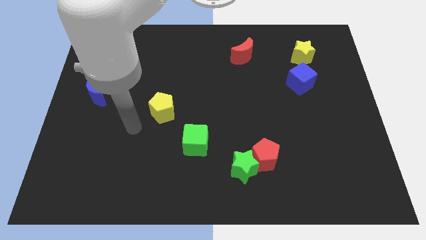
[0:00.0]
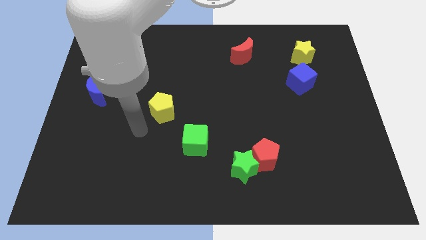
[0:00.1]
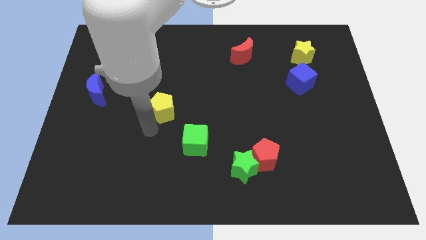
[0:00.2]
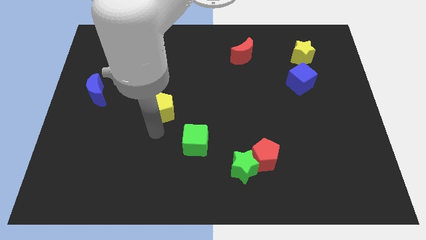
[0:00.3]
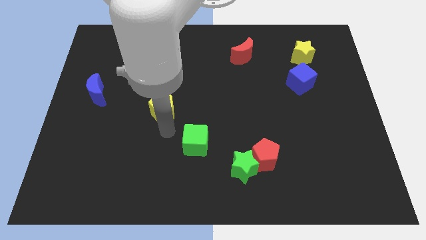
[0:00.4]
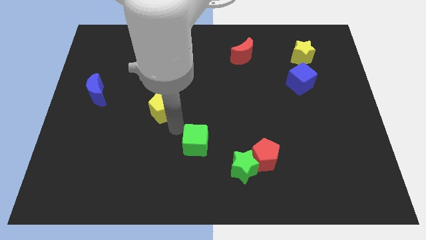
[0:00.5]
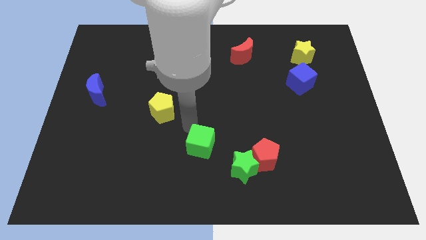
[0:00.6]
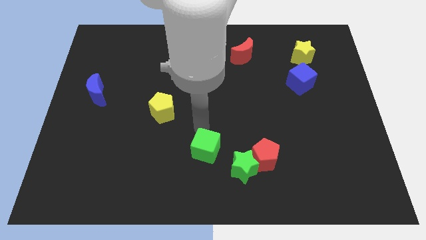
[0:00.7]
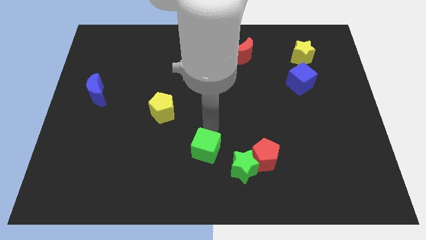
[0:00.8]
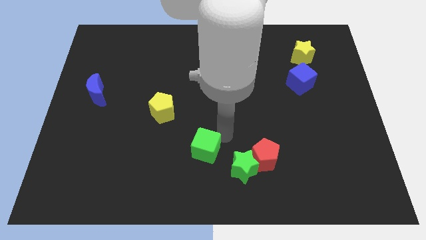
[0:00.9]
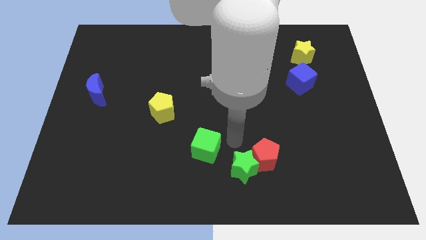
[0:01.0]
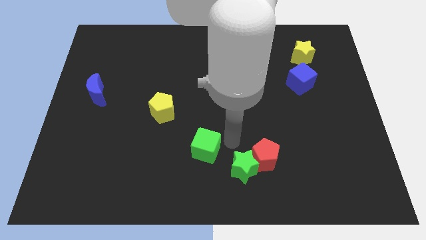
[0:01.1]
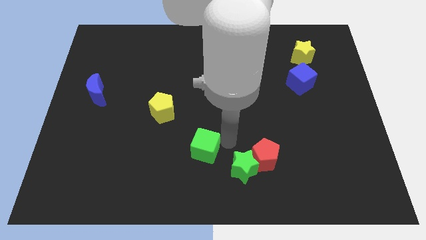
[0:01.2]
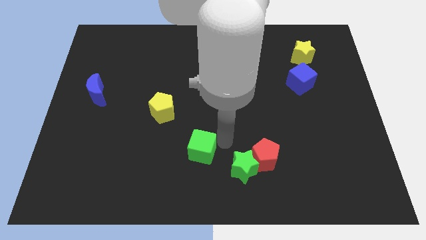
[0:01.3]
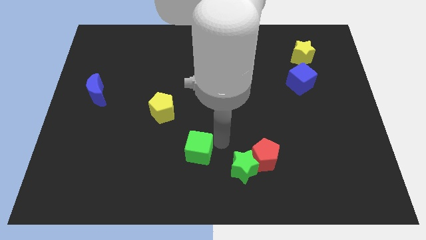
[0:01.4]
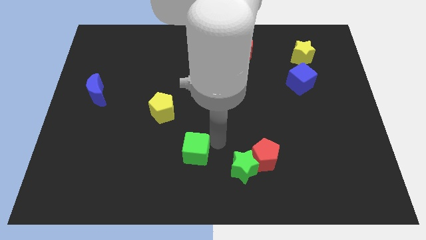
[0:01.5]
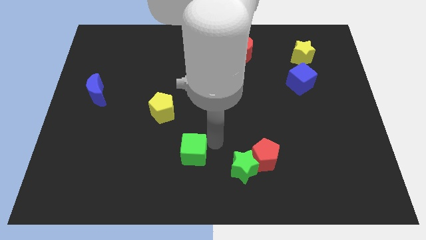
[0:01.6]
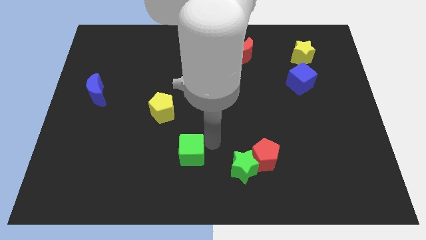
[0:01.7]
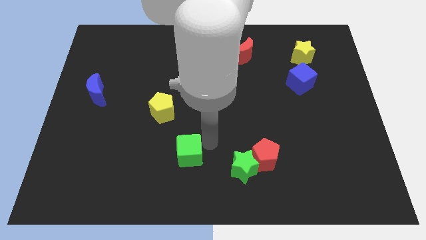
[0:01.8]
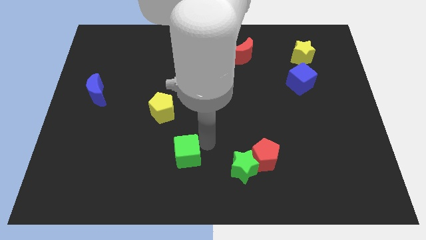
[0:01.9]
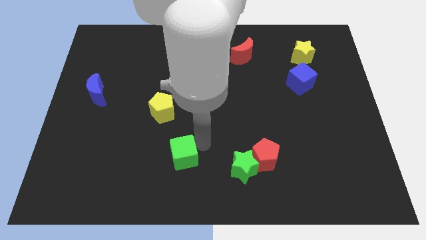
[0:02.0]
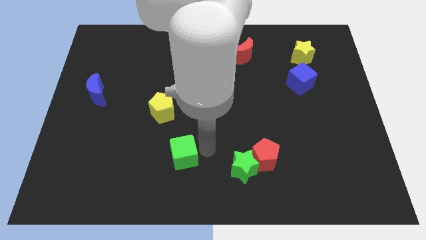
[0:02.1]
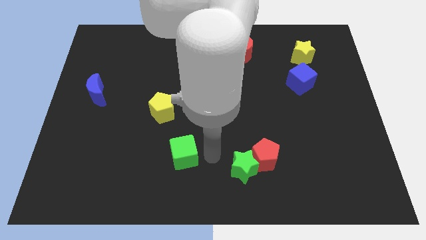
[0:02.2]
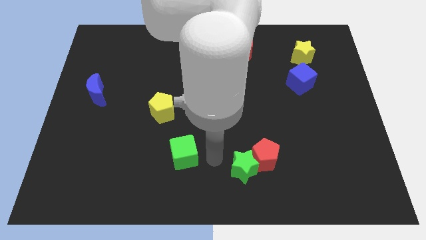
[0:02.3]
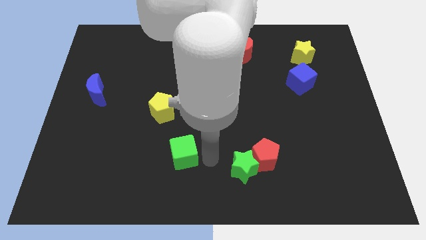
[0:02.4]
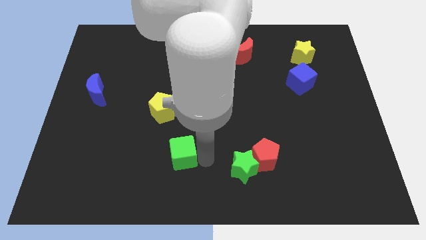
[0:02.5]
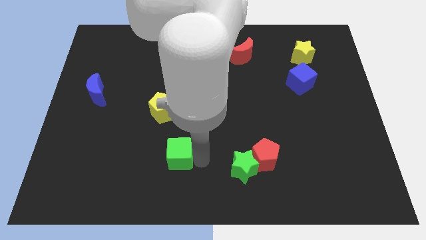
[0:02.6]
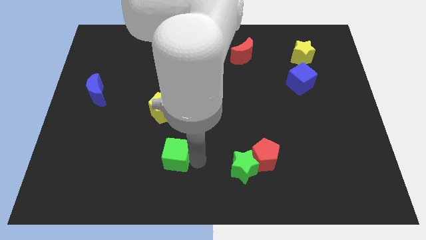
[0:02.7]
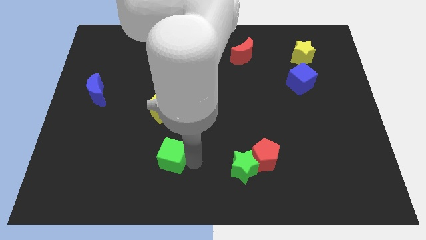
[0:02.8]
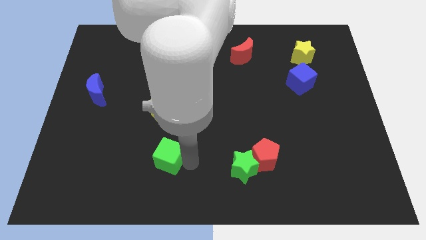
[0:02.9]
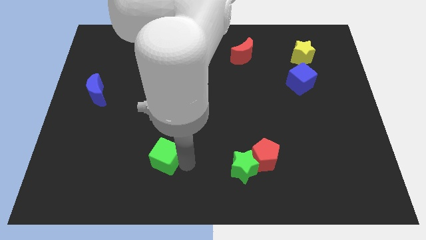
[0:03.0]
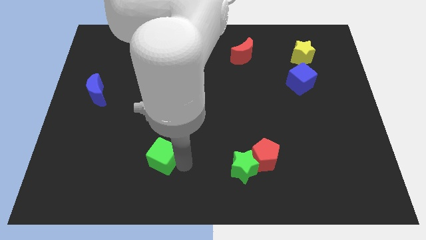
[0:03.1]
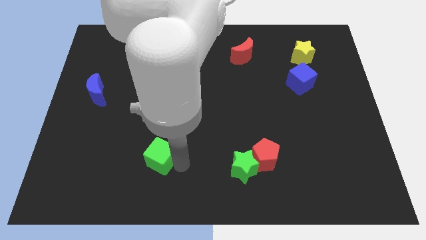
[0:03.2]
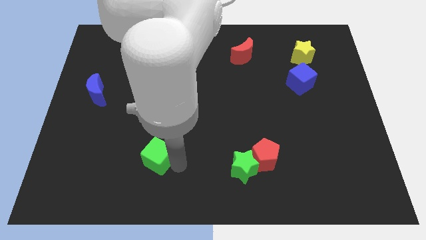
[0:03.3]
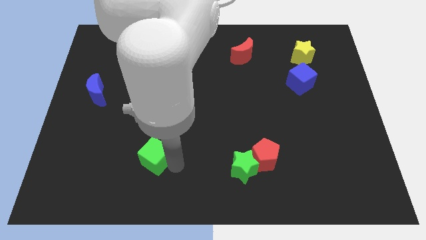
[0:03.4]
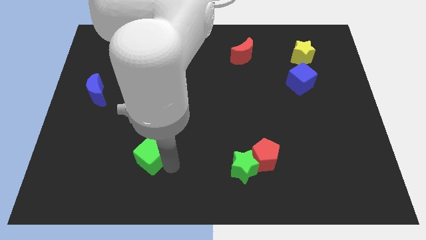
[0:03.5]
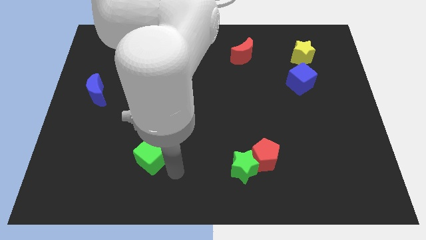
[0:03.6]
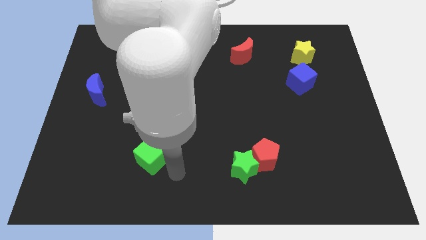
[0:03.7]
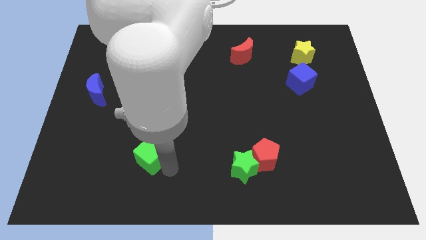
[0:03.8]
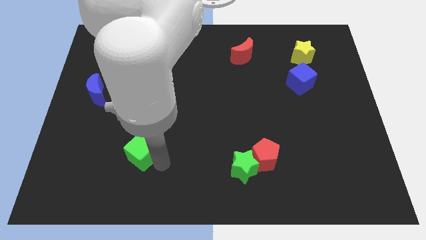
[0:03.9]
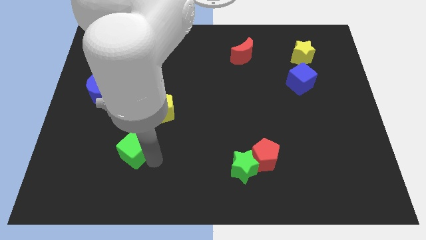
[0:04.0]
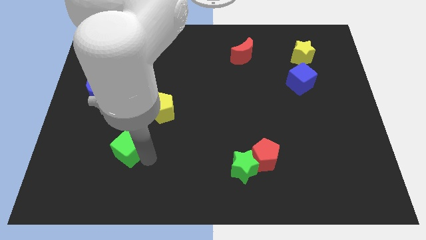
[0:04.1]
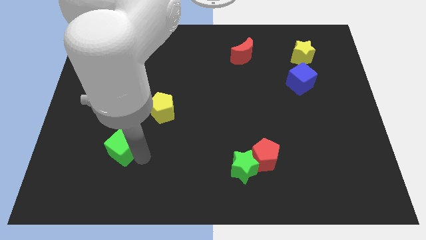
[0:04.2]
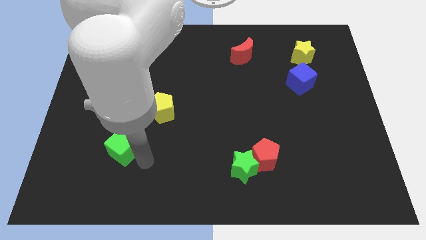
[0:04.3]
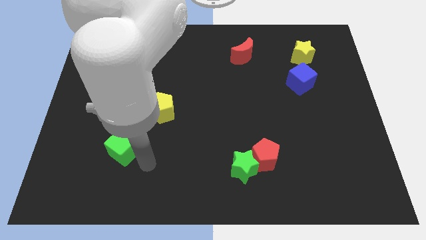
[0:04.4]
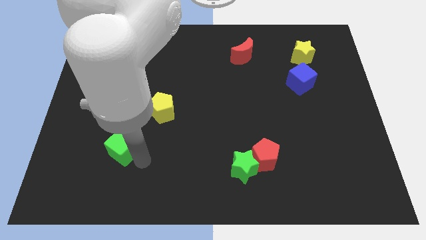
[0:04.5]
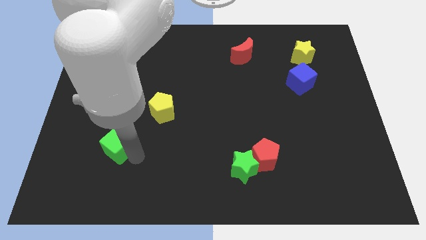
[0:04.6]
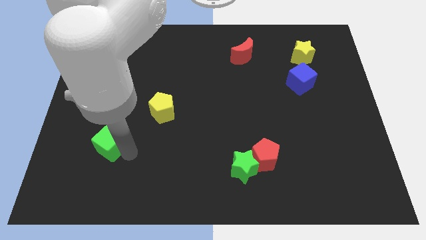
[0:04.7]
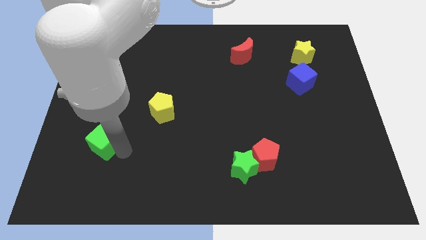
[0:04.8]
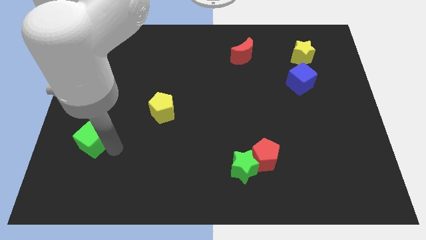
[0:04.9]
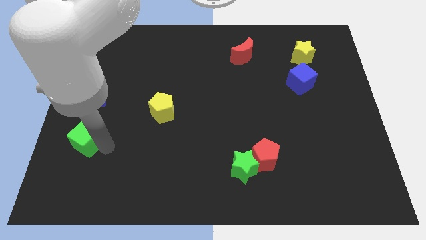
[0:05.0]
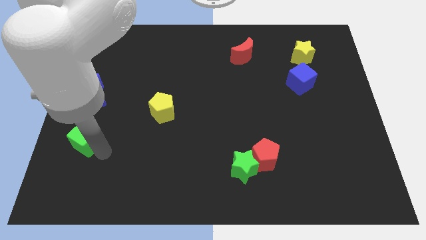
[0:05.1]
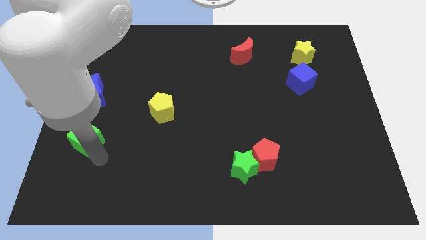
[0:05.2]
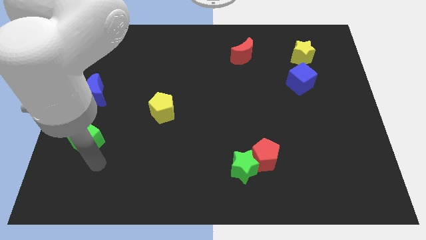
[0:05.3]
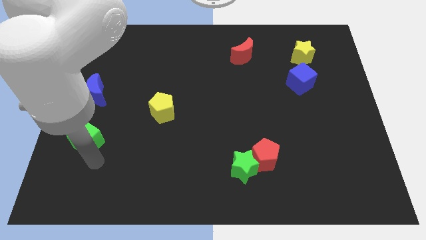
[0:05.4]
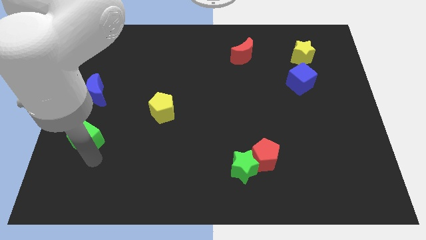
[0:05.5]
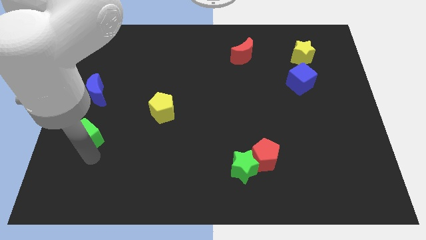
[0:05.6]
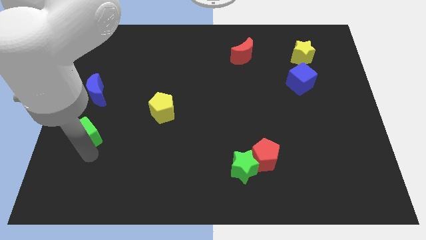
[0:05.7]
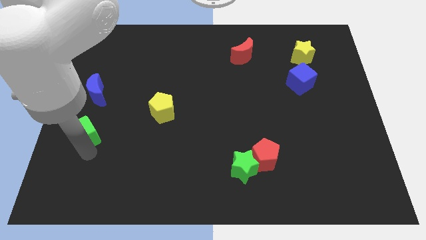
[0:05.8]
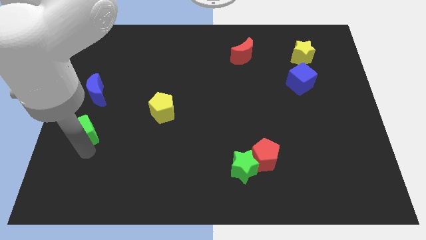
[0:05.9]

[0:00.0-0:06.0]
slide the green cube to the left side

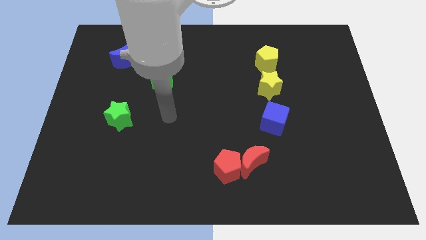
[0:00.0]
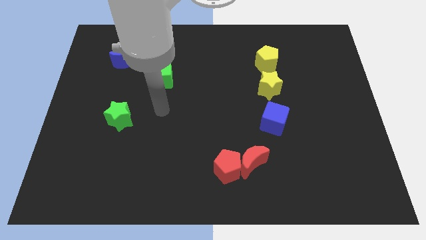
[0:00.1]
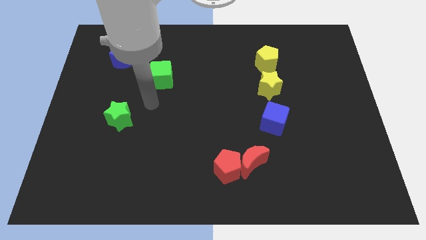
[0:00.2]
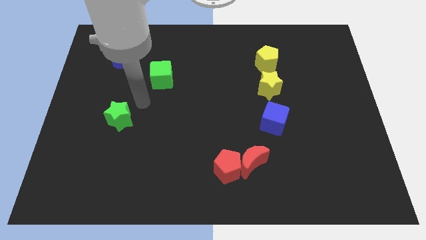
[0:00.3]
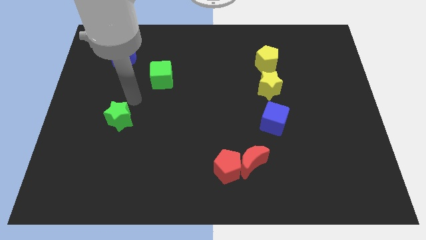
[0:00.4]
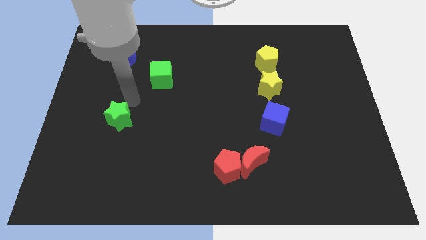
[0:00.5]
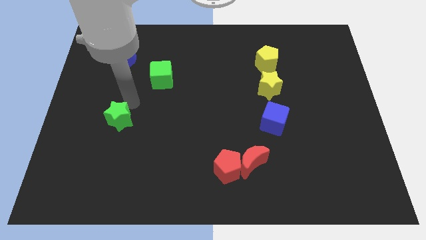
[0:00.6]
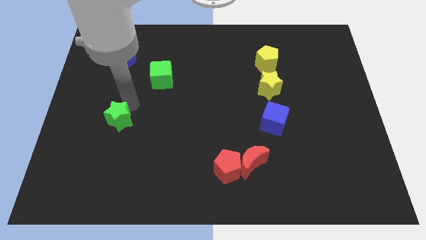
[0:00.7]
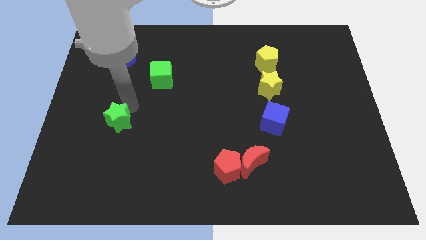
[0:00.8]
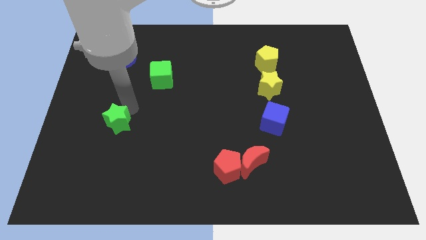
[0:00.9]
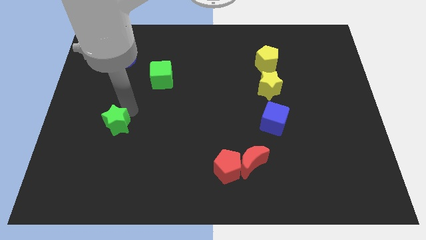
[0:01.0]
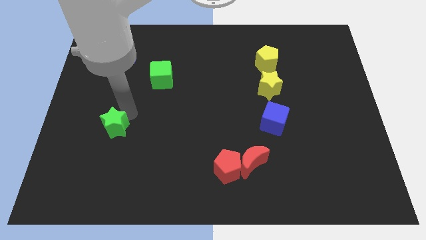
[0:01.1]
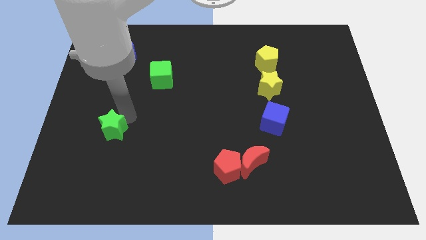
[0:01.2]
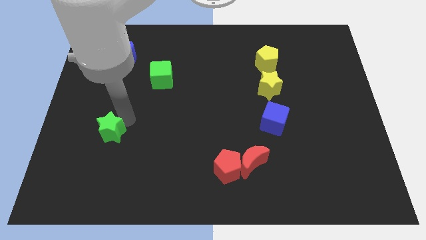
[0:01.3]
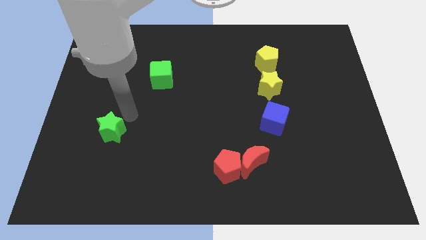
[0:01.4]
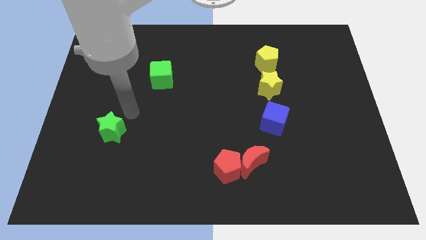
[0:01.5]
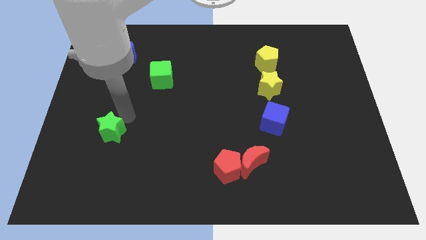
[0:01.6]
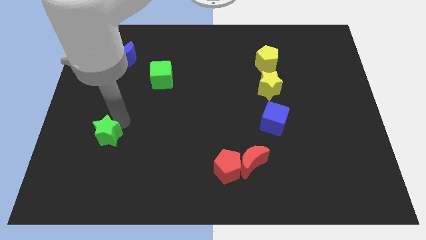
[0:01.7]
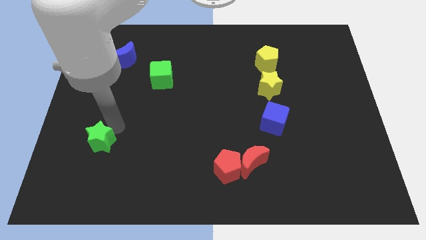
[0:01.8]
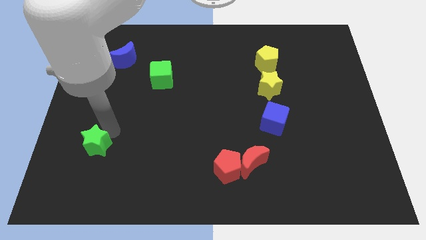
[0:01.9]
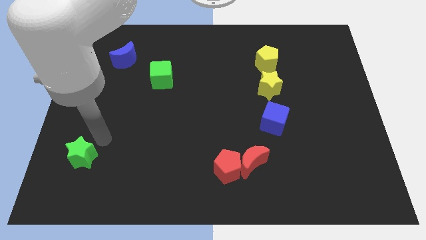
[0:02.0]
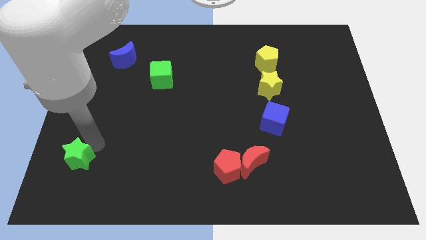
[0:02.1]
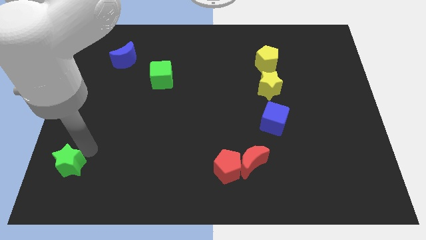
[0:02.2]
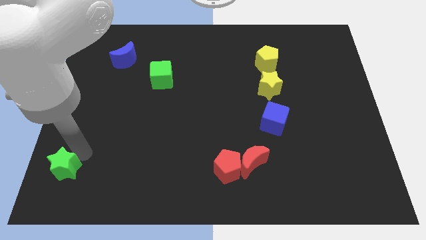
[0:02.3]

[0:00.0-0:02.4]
push the green star to the bottom left of the board
